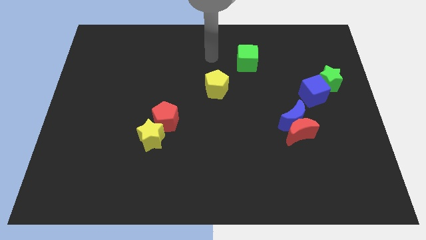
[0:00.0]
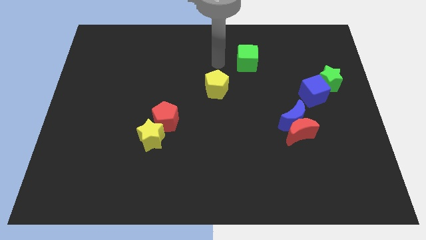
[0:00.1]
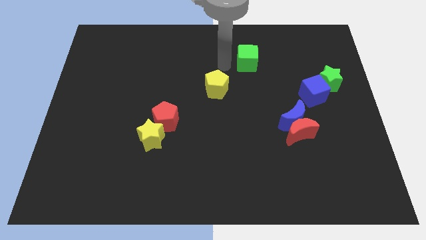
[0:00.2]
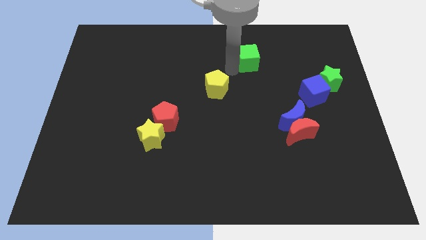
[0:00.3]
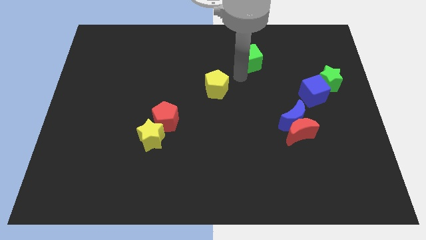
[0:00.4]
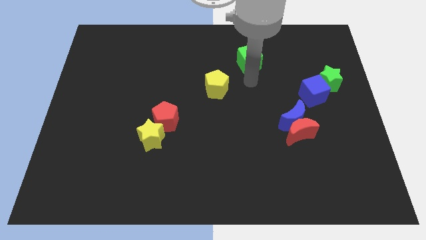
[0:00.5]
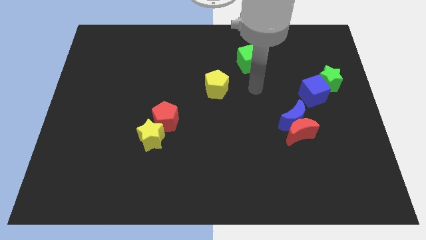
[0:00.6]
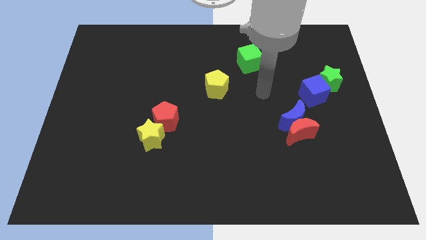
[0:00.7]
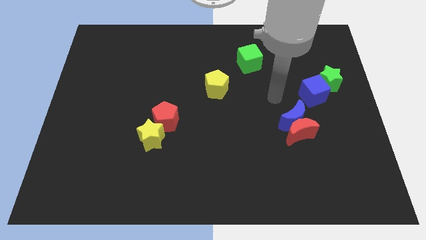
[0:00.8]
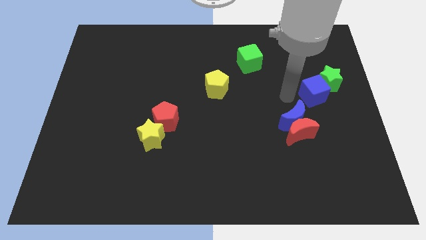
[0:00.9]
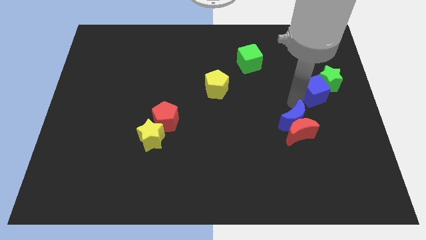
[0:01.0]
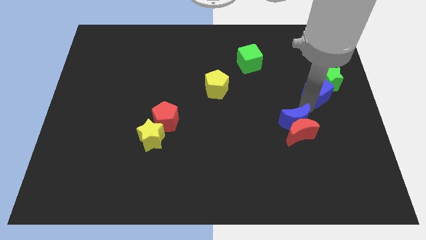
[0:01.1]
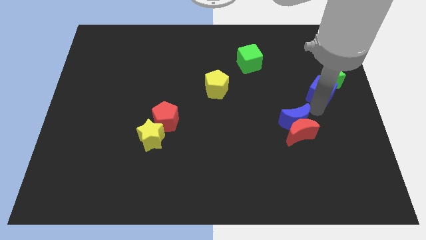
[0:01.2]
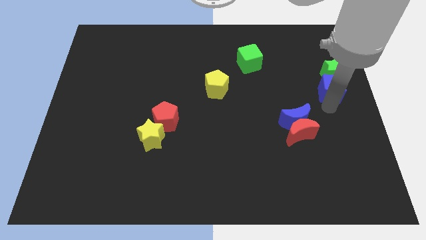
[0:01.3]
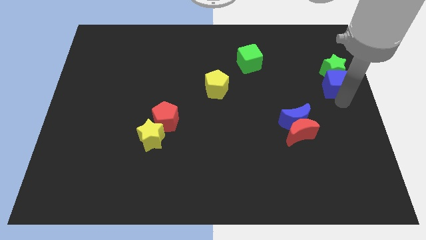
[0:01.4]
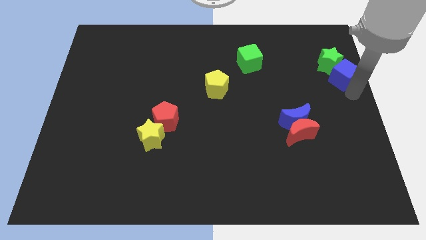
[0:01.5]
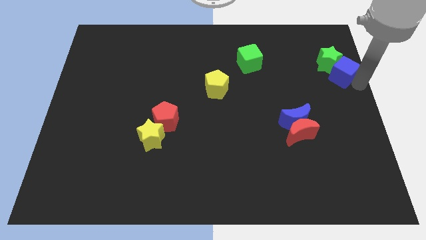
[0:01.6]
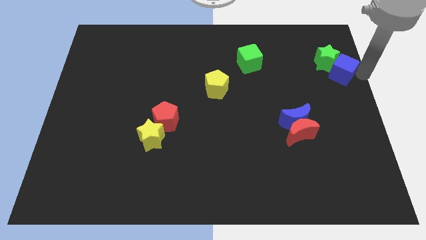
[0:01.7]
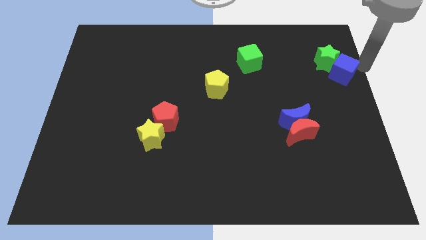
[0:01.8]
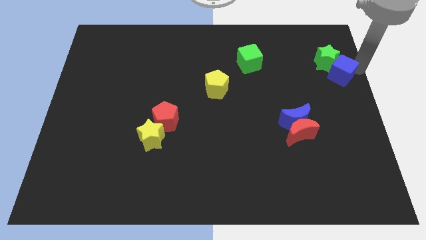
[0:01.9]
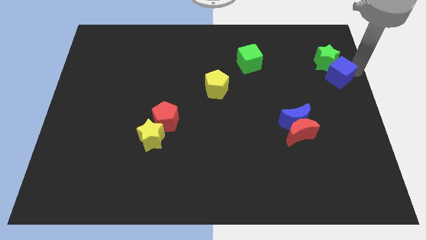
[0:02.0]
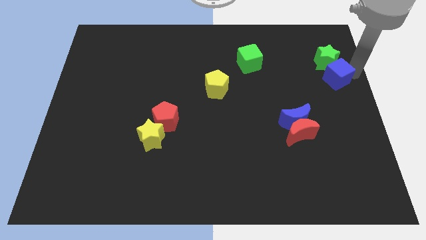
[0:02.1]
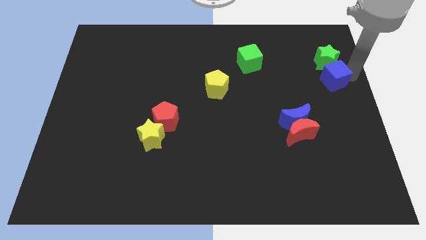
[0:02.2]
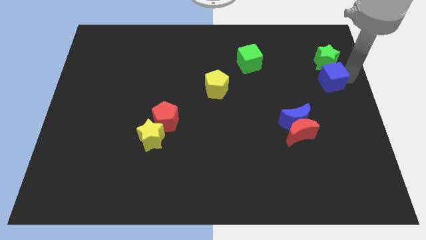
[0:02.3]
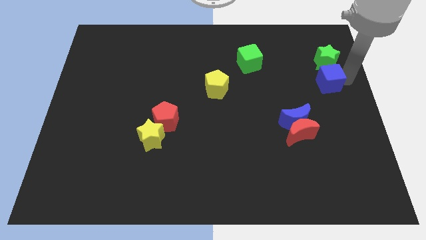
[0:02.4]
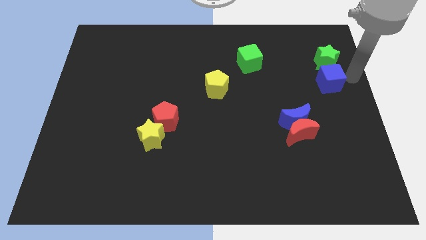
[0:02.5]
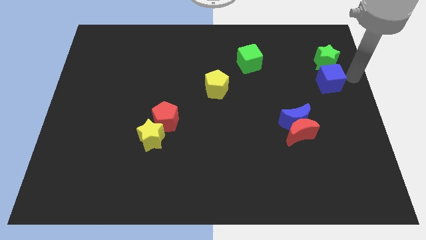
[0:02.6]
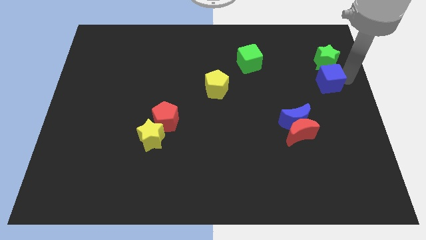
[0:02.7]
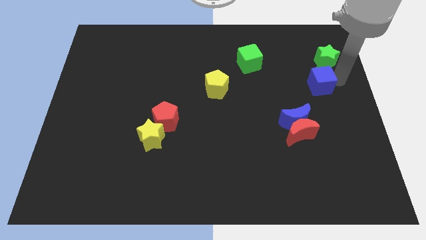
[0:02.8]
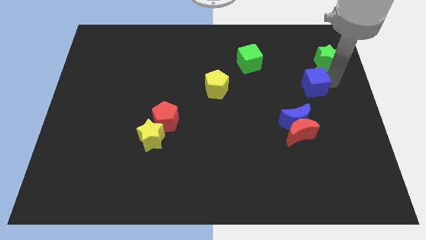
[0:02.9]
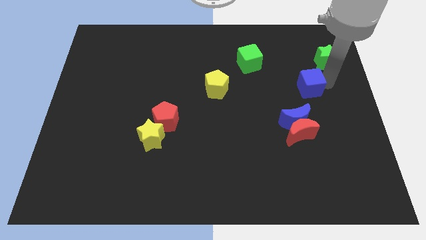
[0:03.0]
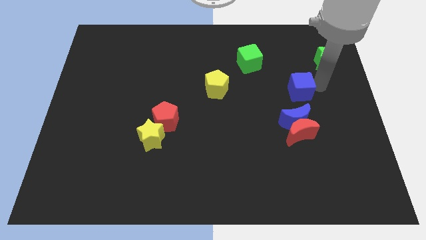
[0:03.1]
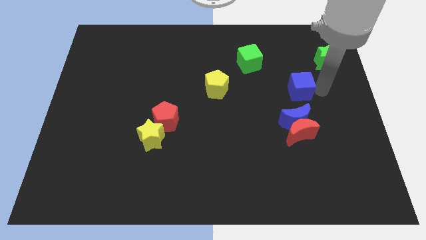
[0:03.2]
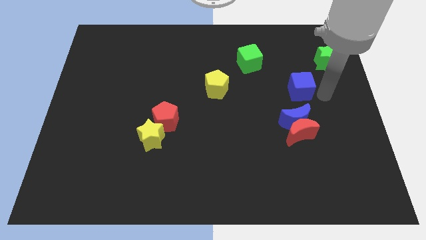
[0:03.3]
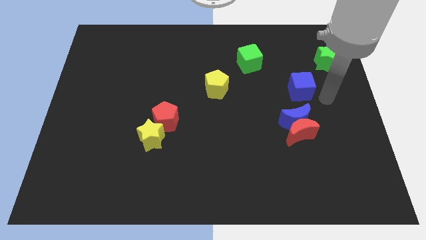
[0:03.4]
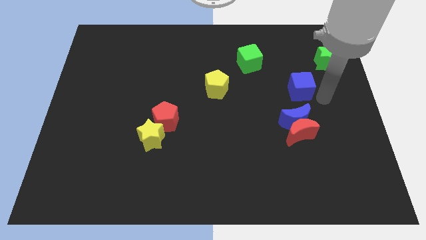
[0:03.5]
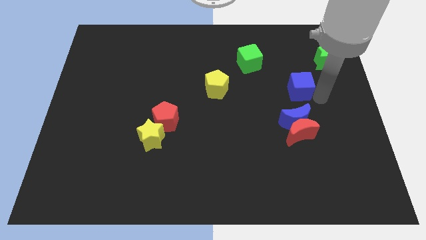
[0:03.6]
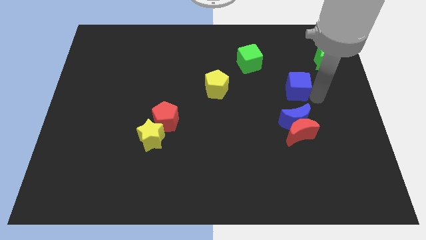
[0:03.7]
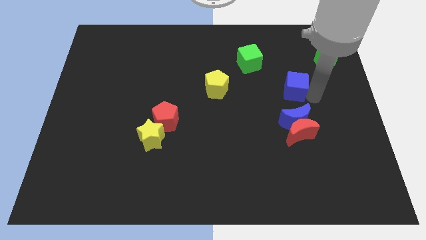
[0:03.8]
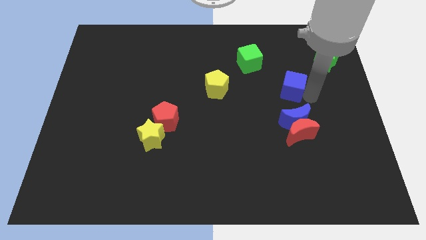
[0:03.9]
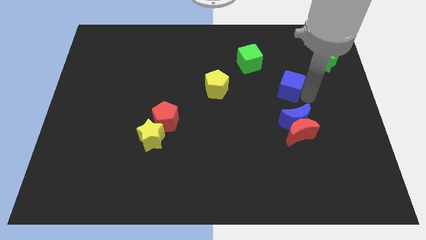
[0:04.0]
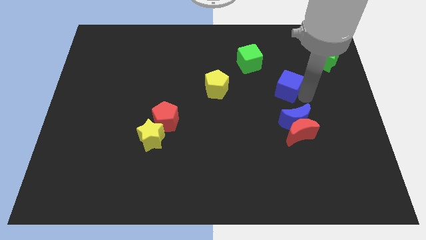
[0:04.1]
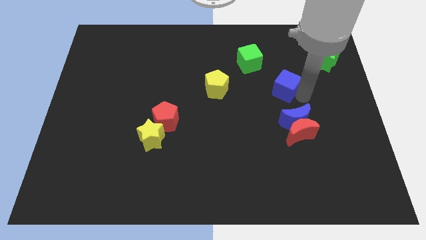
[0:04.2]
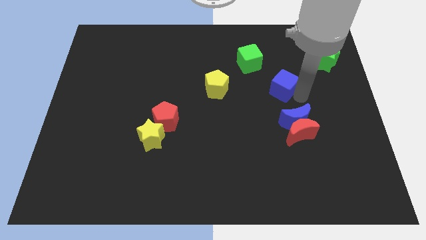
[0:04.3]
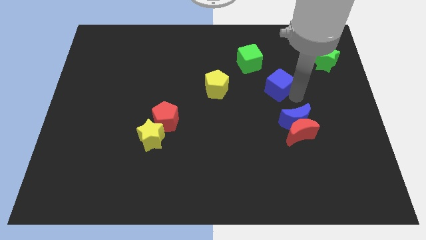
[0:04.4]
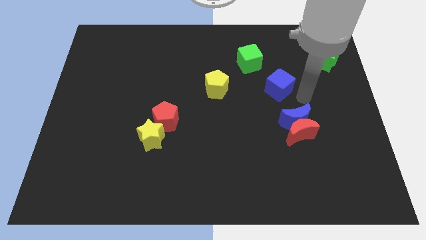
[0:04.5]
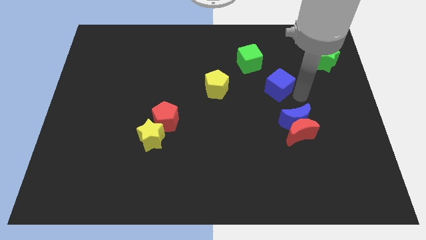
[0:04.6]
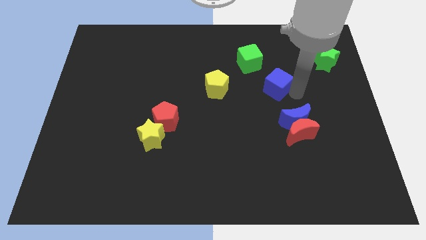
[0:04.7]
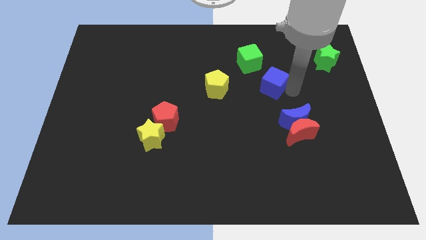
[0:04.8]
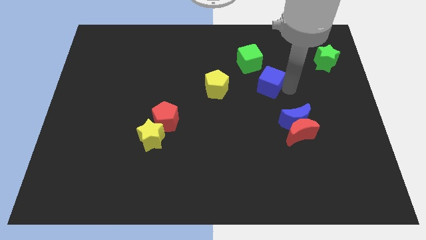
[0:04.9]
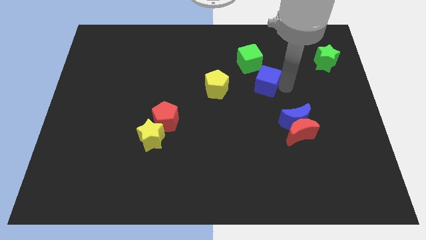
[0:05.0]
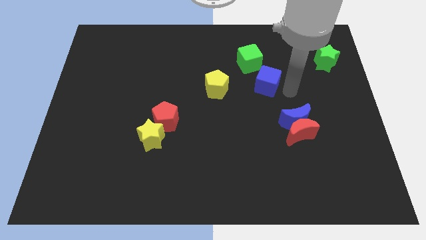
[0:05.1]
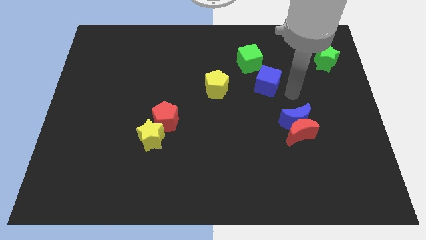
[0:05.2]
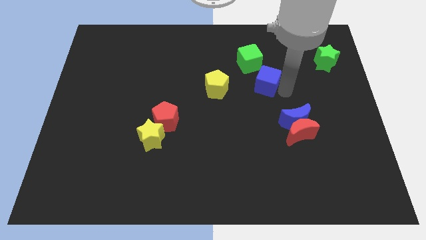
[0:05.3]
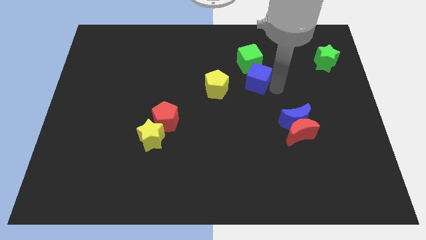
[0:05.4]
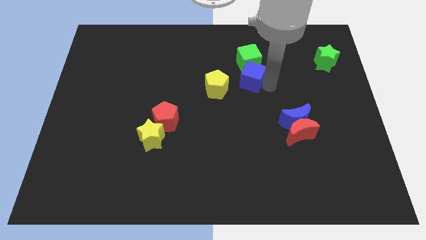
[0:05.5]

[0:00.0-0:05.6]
move the blue cube to the top right side of the yellow pentagon

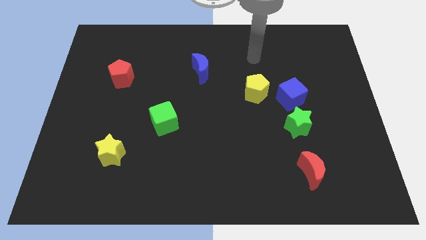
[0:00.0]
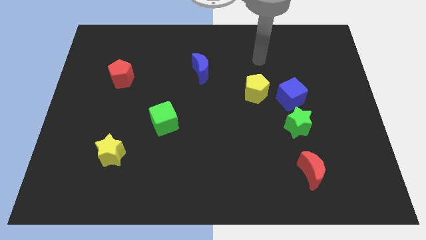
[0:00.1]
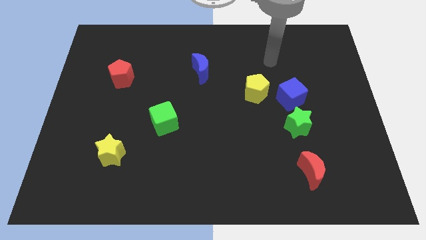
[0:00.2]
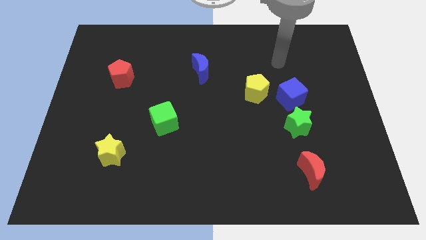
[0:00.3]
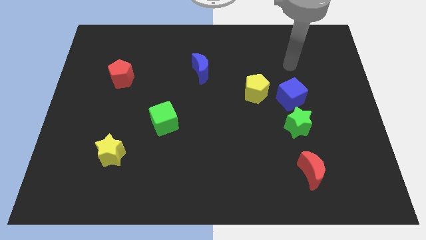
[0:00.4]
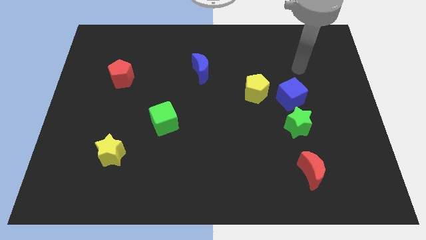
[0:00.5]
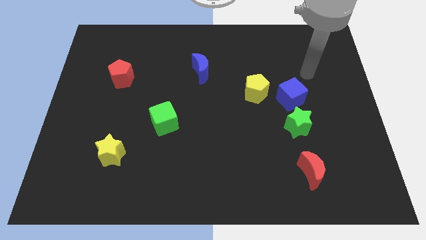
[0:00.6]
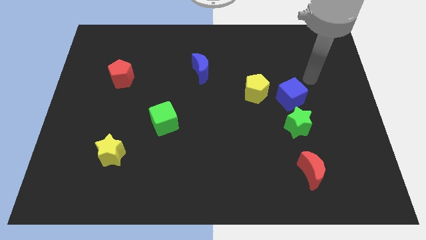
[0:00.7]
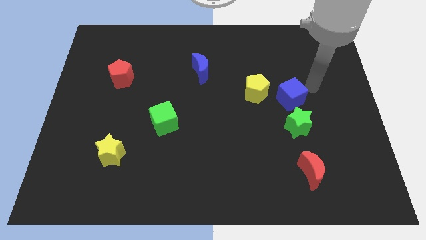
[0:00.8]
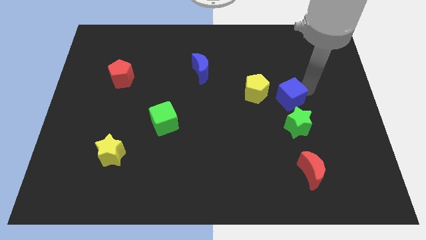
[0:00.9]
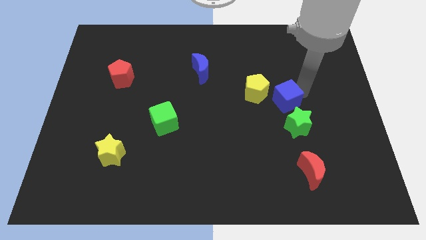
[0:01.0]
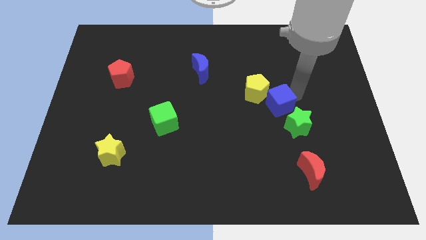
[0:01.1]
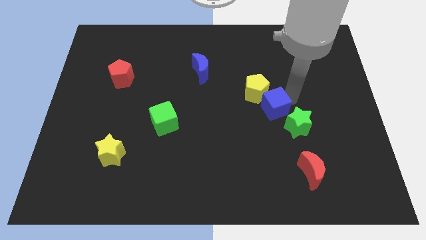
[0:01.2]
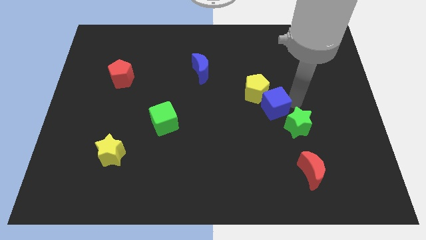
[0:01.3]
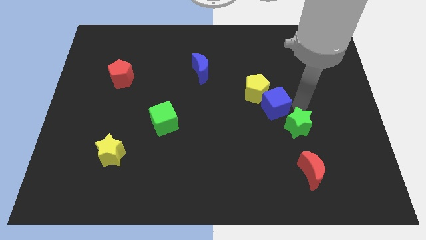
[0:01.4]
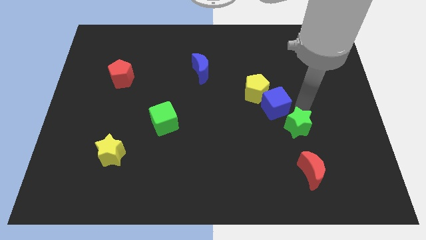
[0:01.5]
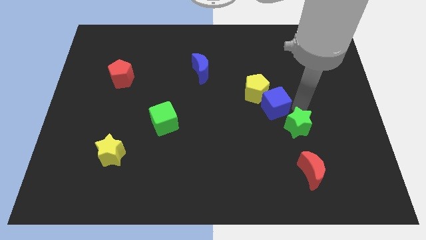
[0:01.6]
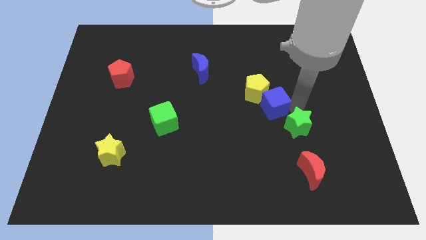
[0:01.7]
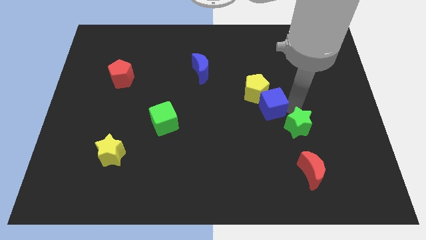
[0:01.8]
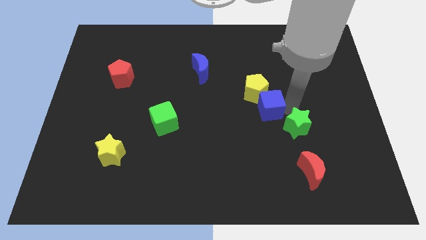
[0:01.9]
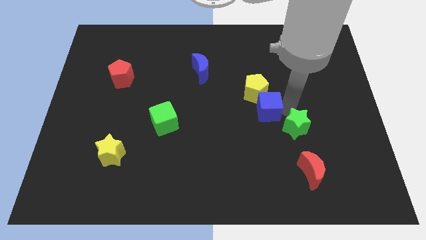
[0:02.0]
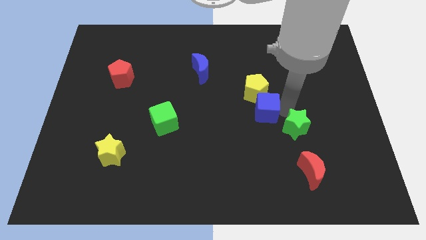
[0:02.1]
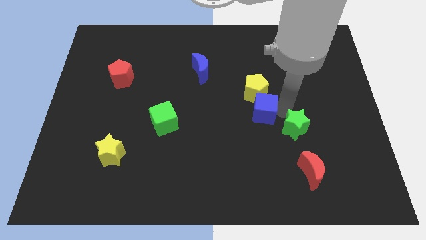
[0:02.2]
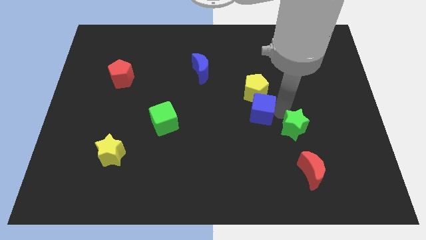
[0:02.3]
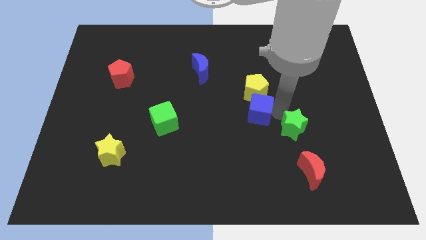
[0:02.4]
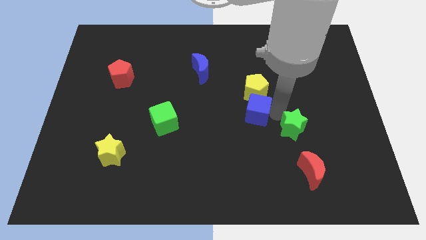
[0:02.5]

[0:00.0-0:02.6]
slide the blue cube diagonally down and to the left of the yellow pentagon
